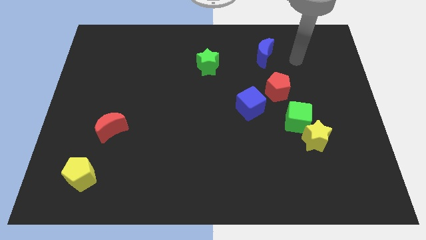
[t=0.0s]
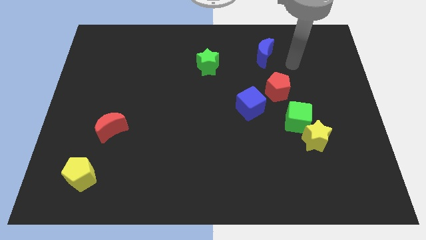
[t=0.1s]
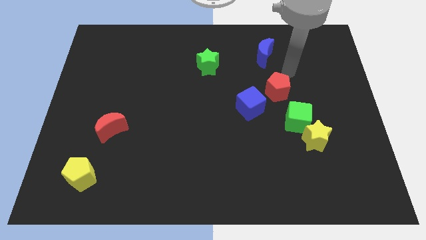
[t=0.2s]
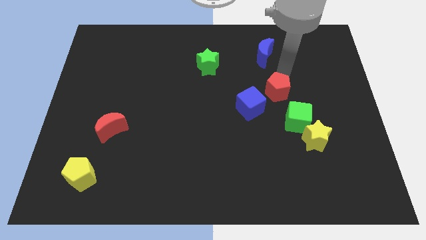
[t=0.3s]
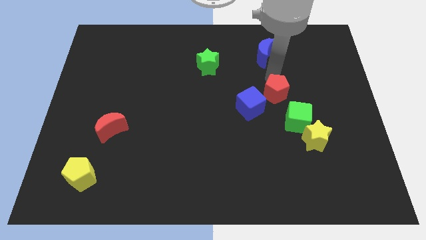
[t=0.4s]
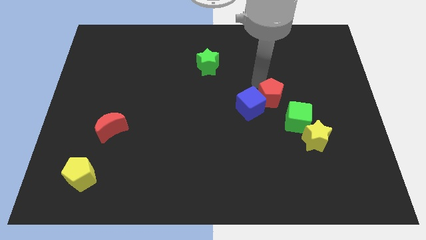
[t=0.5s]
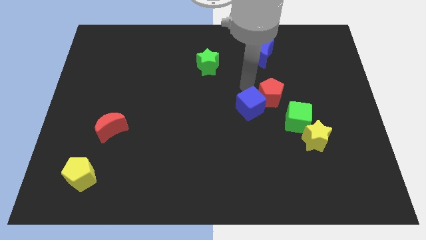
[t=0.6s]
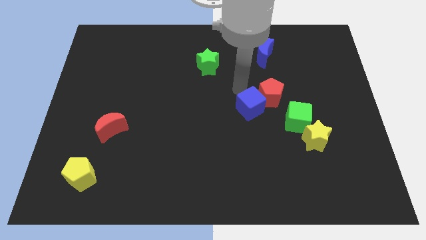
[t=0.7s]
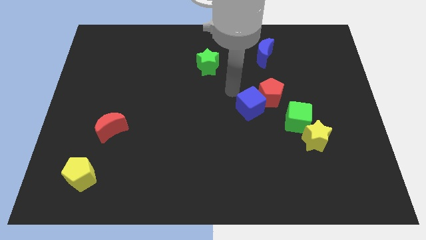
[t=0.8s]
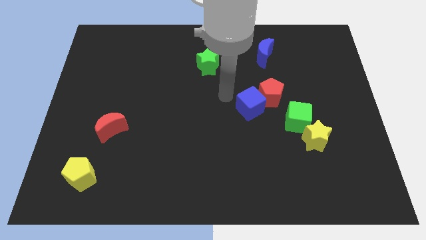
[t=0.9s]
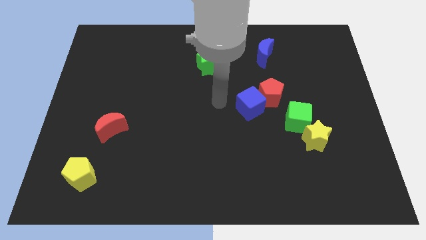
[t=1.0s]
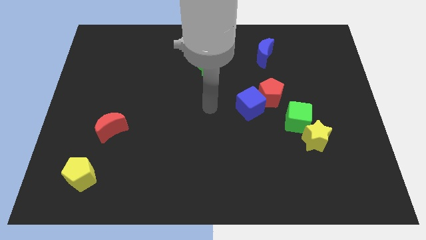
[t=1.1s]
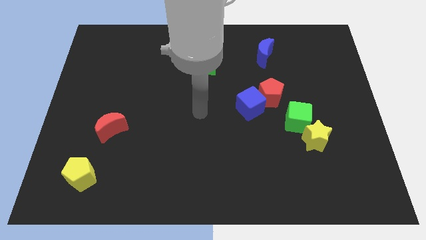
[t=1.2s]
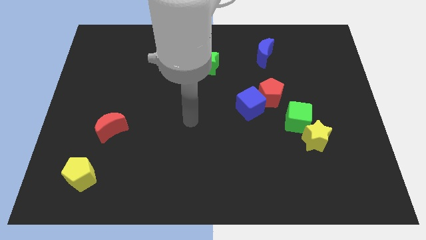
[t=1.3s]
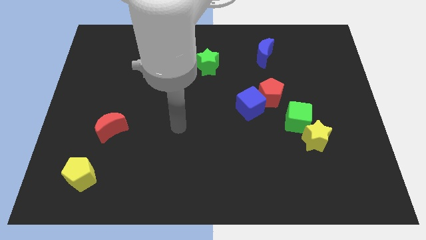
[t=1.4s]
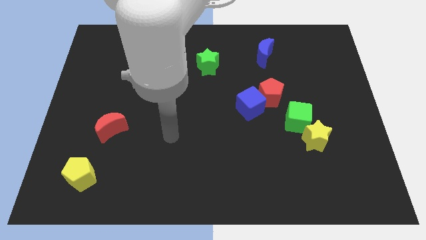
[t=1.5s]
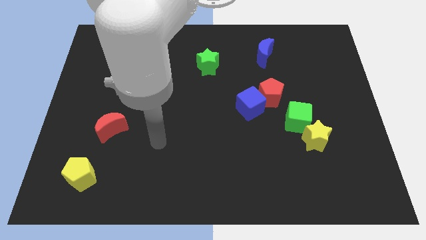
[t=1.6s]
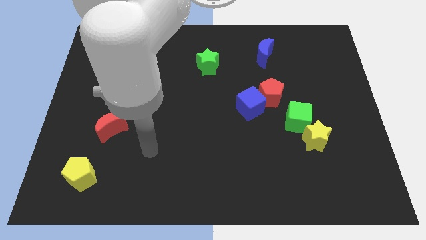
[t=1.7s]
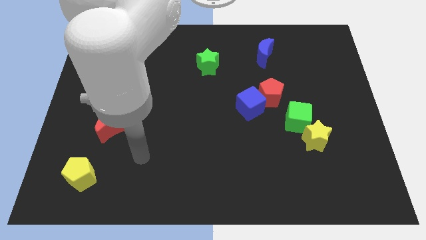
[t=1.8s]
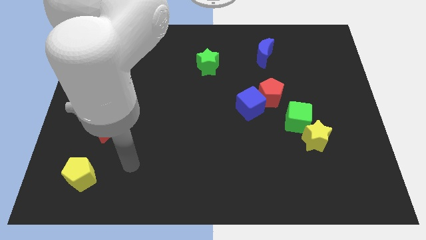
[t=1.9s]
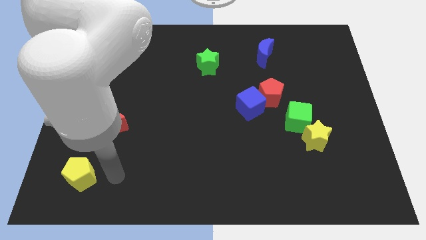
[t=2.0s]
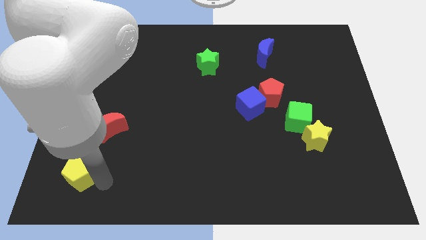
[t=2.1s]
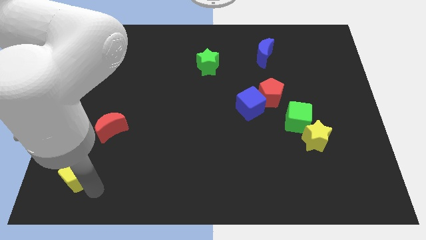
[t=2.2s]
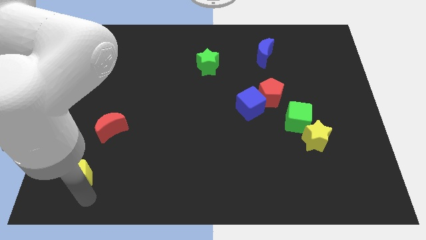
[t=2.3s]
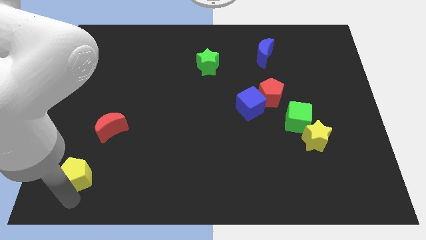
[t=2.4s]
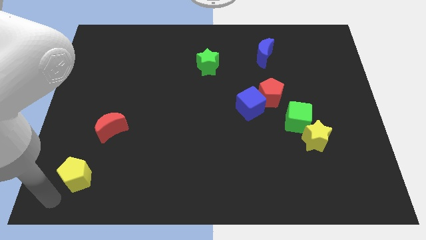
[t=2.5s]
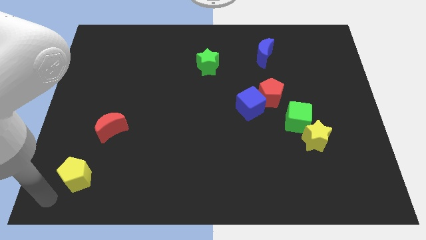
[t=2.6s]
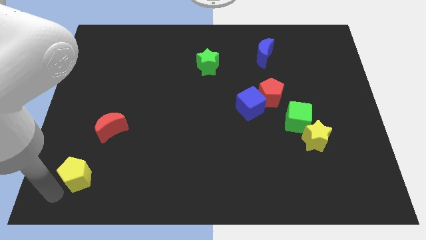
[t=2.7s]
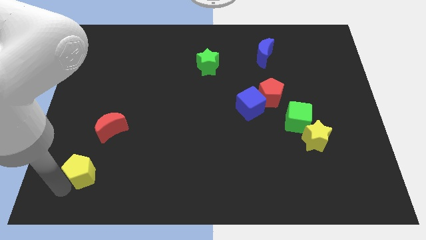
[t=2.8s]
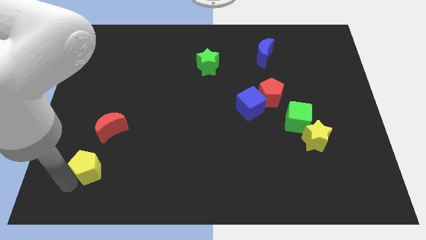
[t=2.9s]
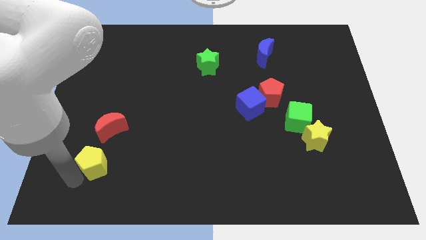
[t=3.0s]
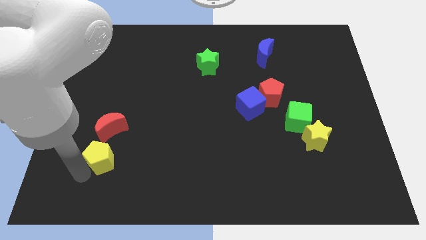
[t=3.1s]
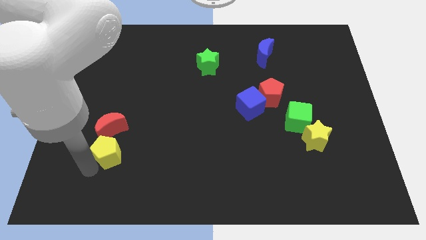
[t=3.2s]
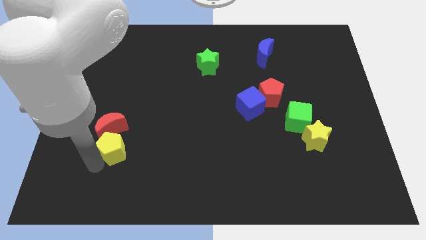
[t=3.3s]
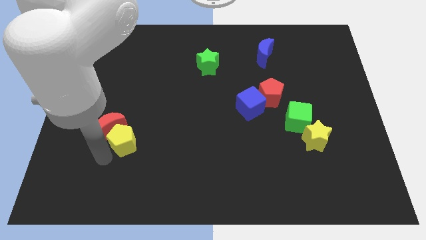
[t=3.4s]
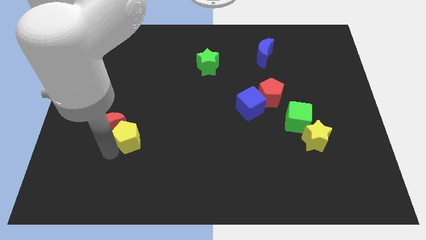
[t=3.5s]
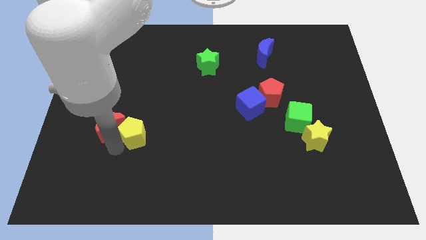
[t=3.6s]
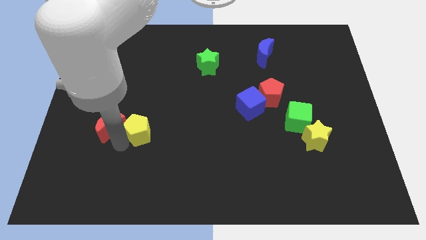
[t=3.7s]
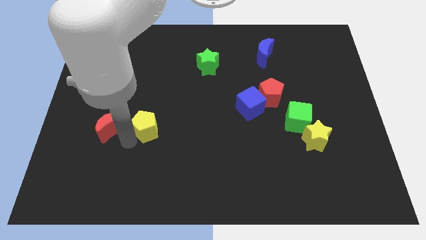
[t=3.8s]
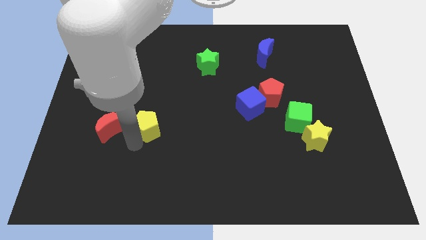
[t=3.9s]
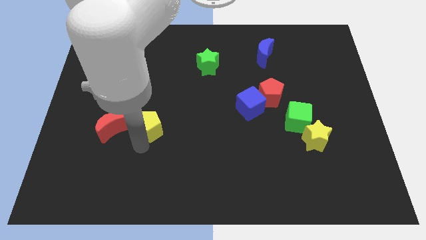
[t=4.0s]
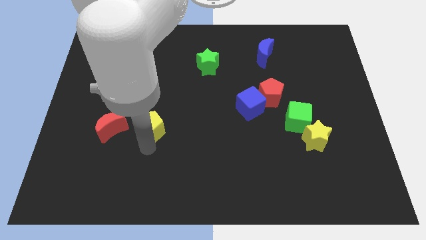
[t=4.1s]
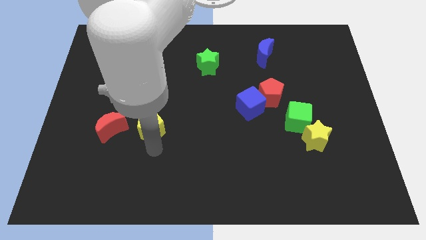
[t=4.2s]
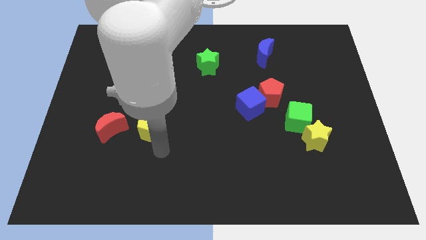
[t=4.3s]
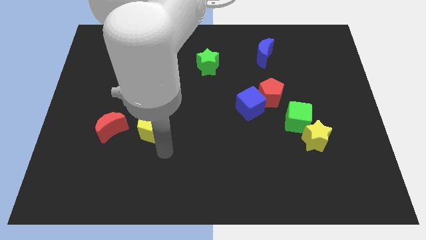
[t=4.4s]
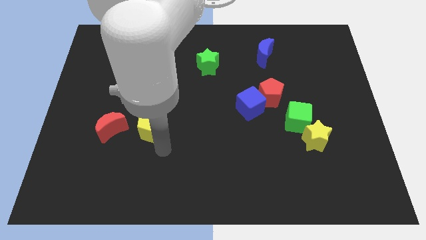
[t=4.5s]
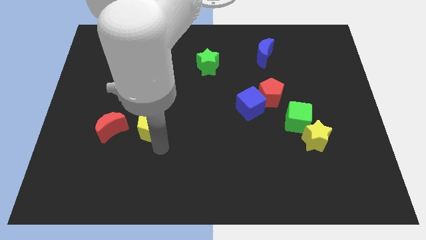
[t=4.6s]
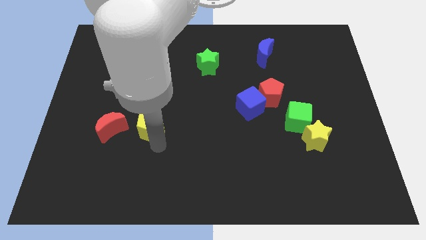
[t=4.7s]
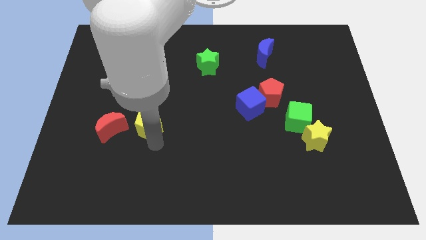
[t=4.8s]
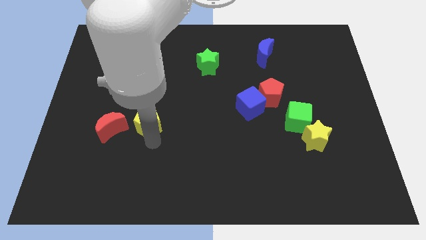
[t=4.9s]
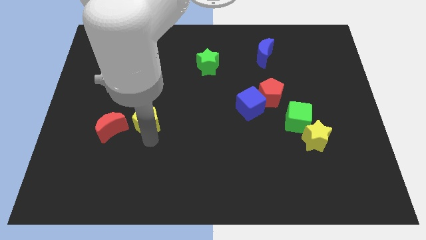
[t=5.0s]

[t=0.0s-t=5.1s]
push the yellow pentagon to the top right side of the red moon

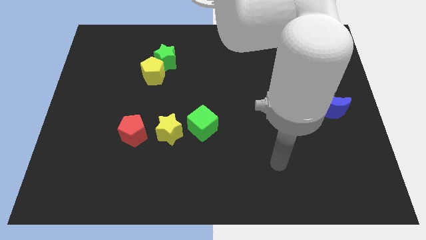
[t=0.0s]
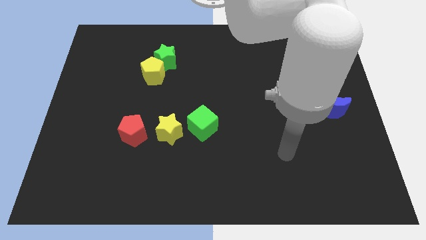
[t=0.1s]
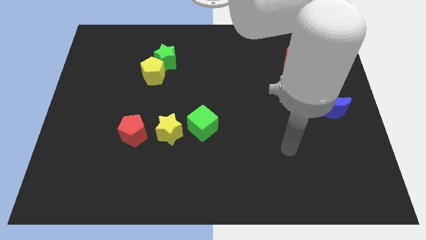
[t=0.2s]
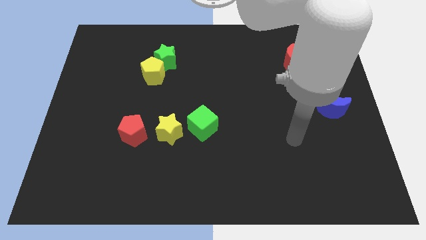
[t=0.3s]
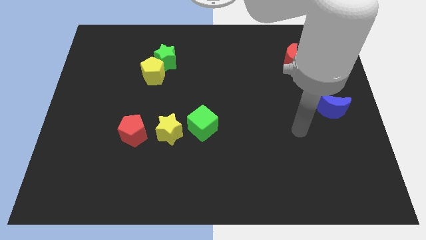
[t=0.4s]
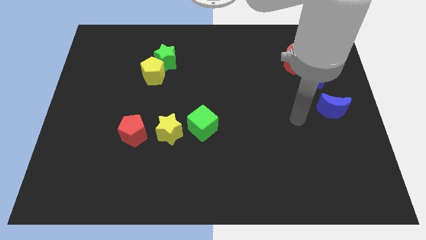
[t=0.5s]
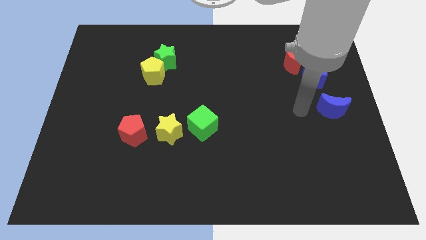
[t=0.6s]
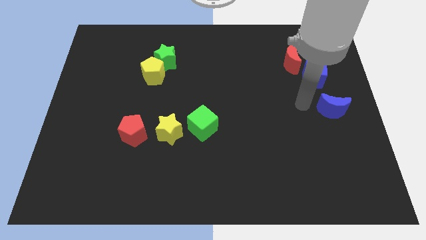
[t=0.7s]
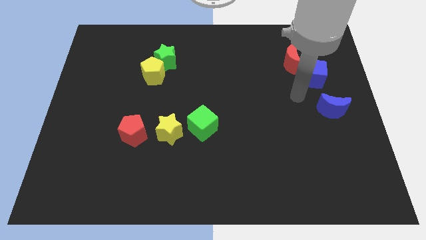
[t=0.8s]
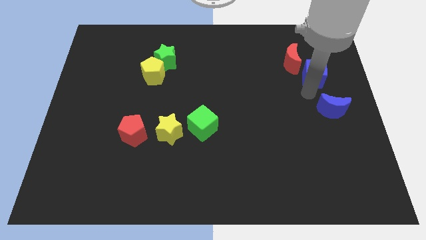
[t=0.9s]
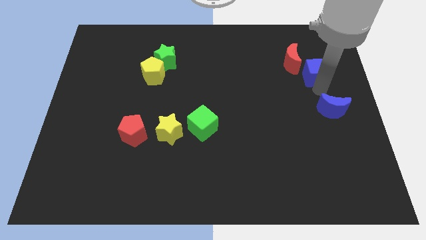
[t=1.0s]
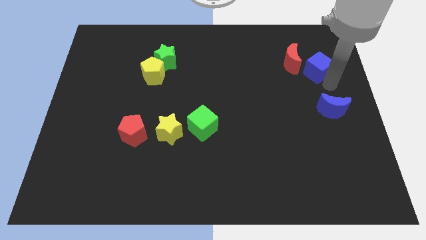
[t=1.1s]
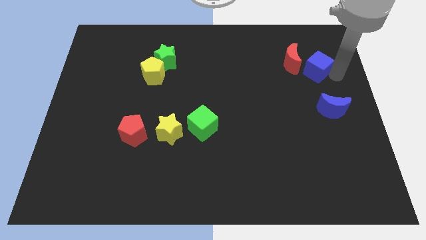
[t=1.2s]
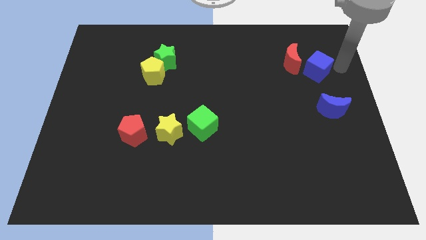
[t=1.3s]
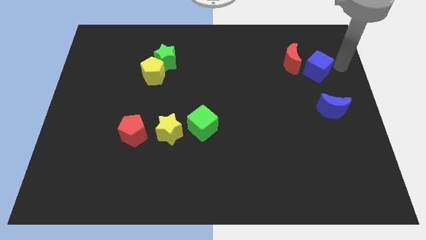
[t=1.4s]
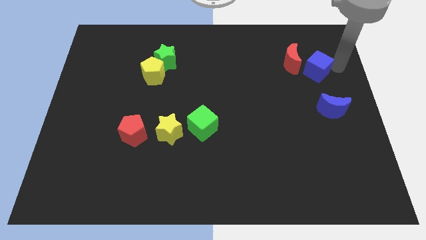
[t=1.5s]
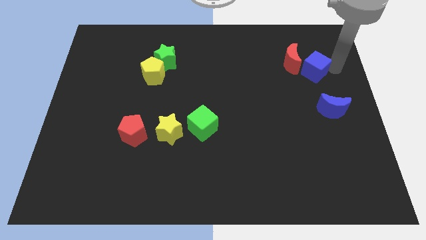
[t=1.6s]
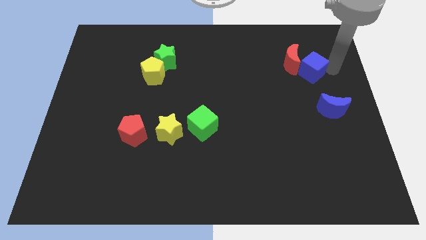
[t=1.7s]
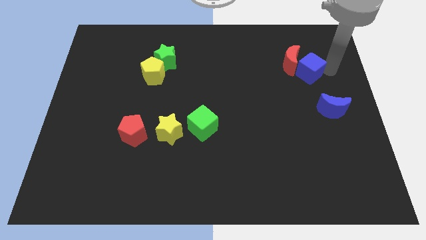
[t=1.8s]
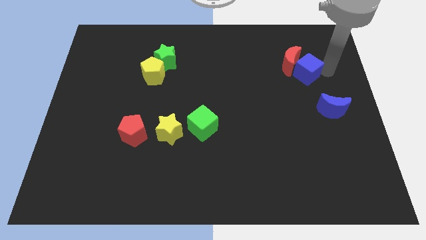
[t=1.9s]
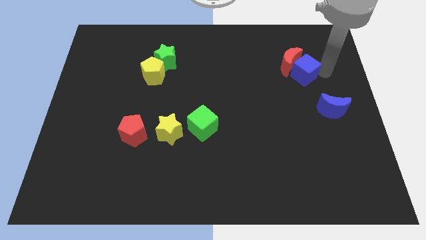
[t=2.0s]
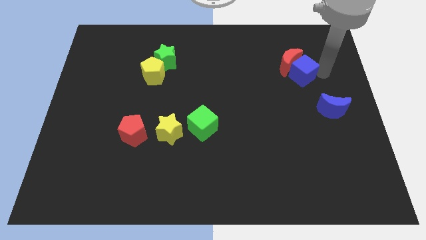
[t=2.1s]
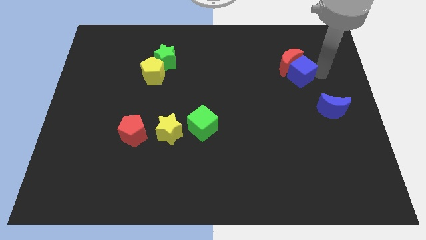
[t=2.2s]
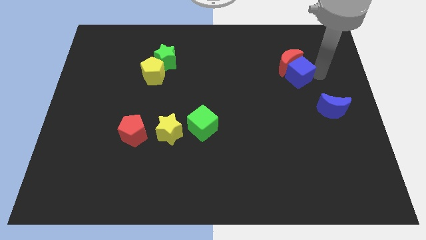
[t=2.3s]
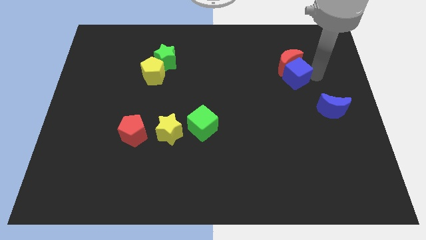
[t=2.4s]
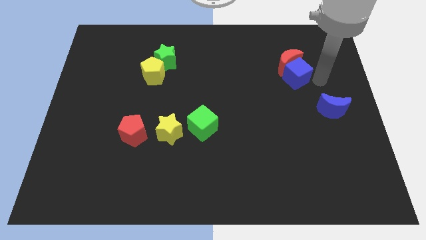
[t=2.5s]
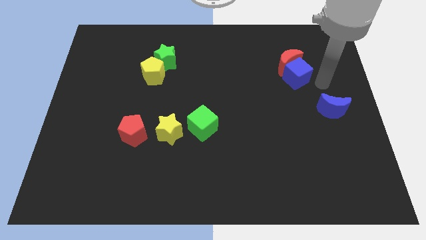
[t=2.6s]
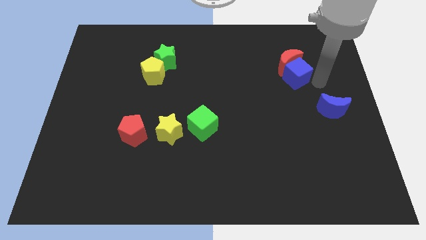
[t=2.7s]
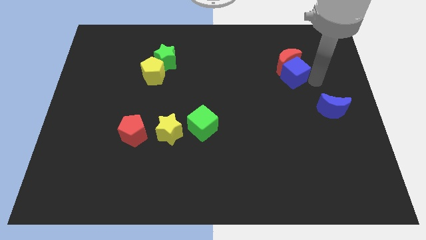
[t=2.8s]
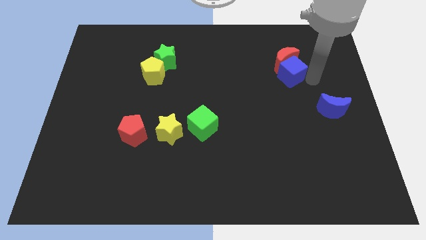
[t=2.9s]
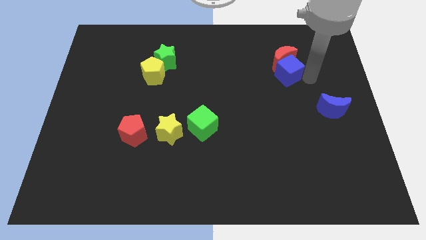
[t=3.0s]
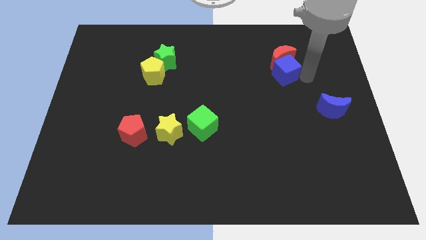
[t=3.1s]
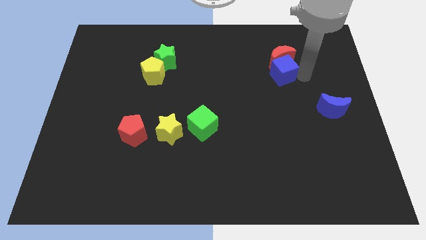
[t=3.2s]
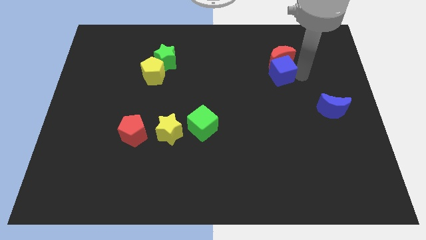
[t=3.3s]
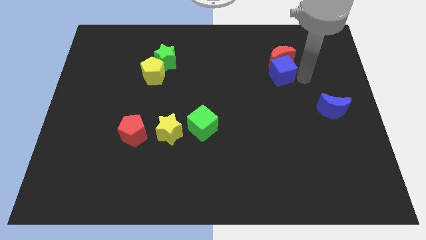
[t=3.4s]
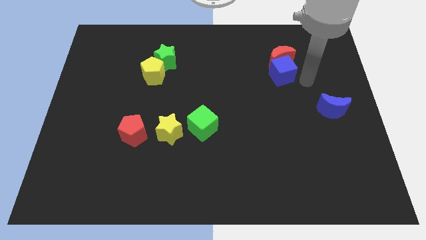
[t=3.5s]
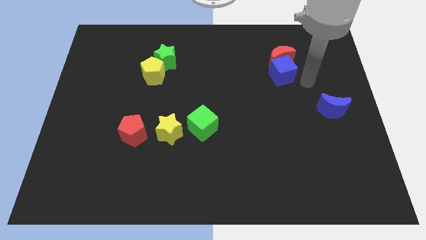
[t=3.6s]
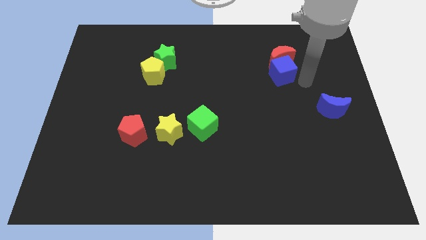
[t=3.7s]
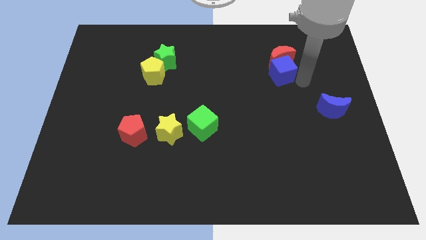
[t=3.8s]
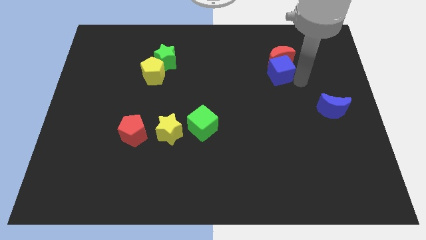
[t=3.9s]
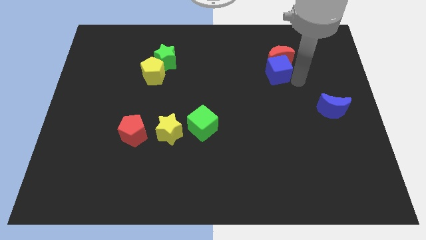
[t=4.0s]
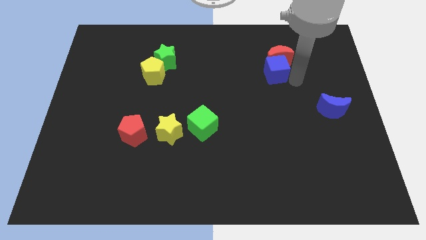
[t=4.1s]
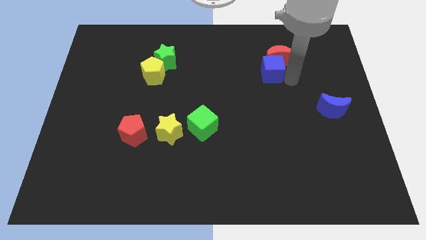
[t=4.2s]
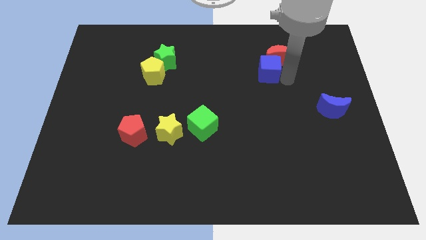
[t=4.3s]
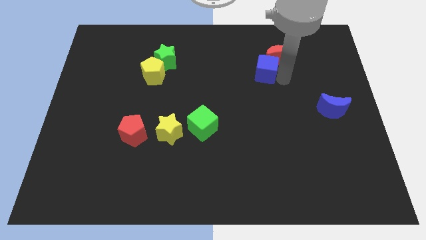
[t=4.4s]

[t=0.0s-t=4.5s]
put the blue cube left of the red moon
